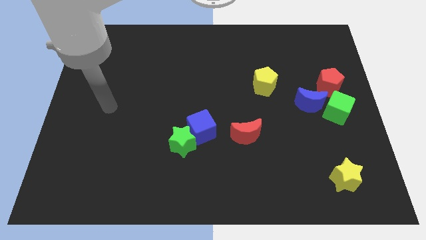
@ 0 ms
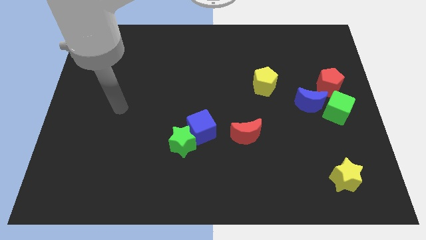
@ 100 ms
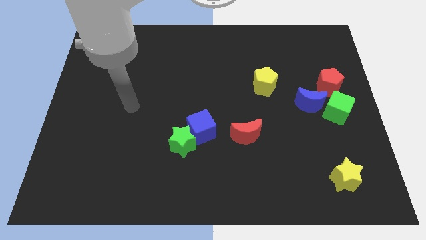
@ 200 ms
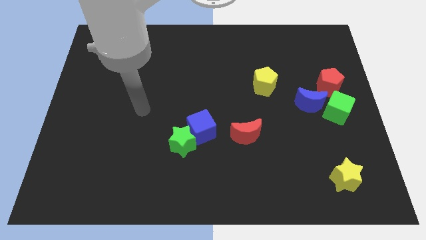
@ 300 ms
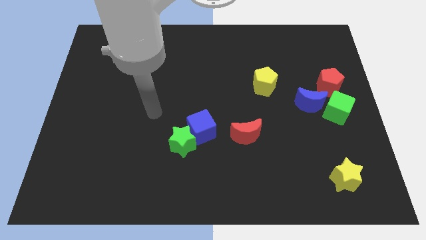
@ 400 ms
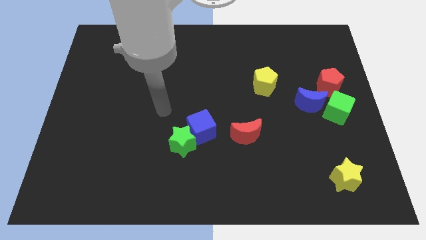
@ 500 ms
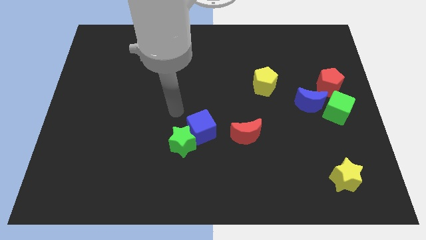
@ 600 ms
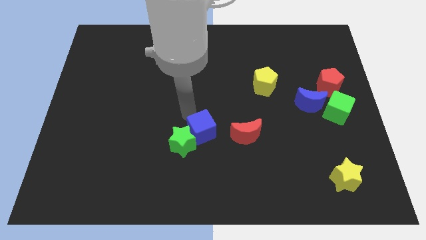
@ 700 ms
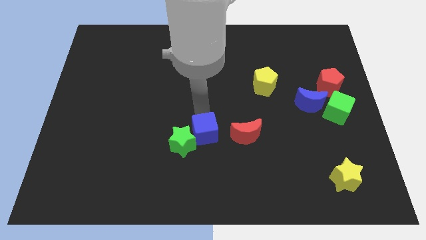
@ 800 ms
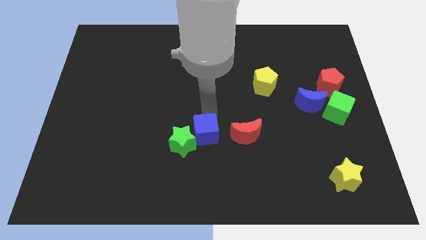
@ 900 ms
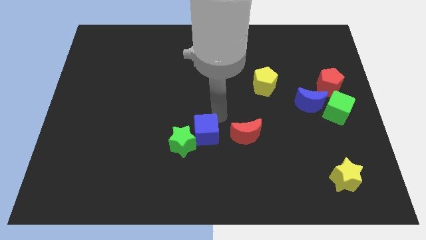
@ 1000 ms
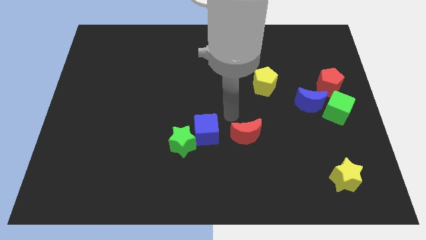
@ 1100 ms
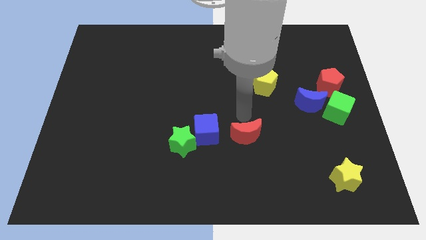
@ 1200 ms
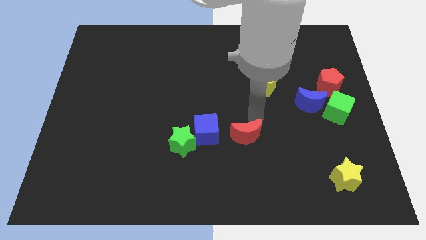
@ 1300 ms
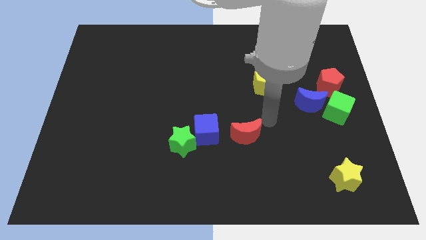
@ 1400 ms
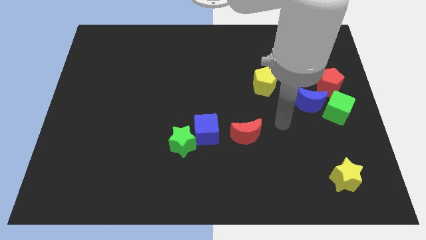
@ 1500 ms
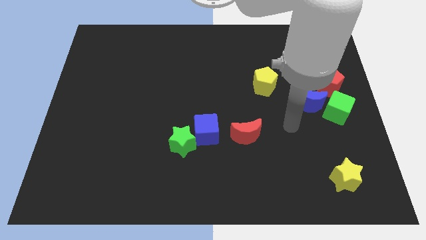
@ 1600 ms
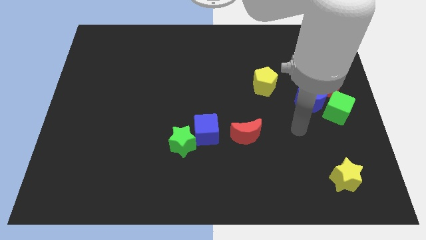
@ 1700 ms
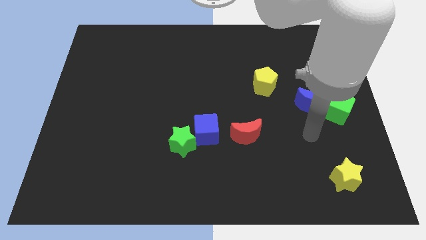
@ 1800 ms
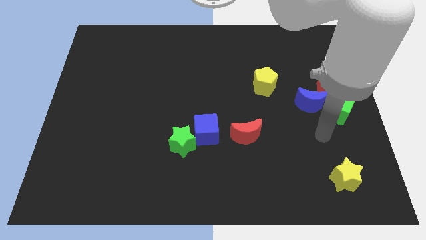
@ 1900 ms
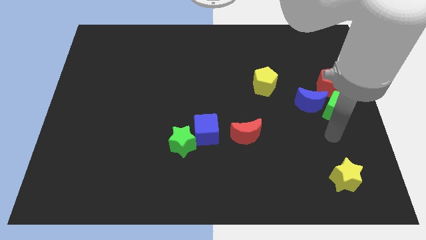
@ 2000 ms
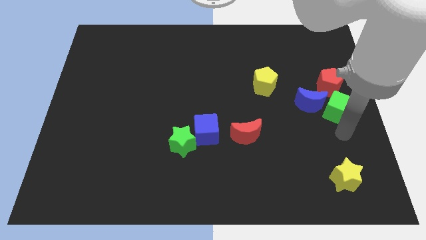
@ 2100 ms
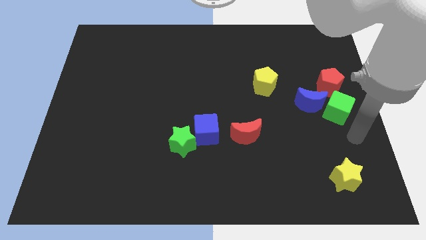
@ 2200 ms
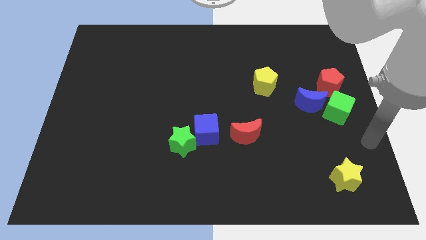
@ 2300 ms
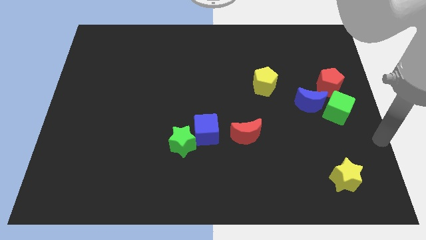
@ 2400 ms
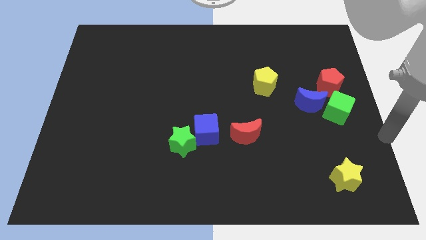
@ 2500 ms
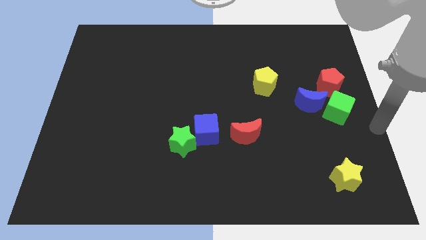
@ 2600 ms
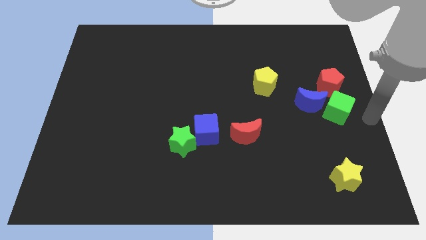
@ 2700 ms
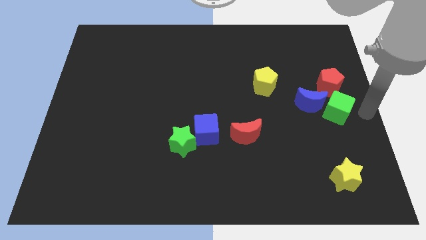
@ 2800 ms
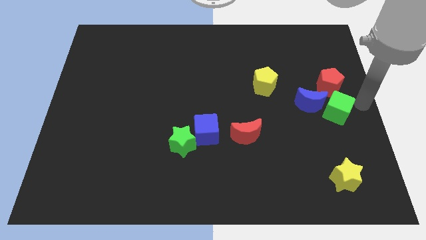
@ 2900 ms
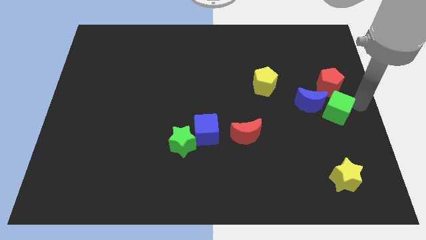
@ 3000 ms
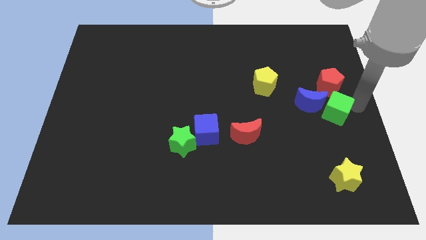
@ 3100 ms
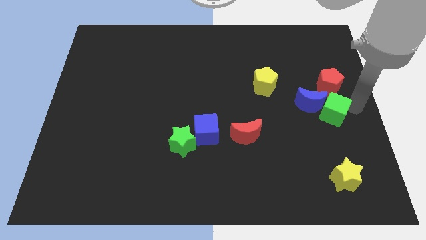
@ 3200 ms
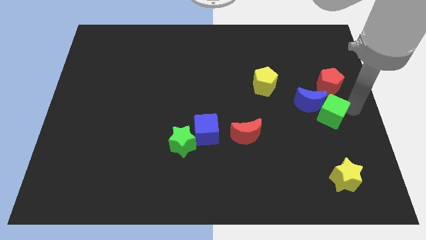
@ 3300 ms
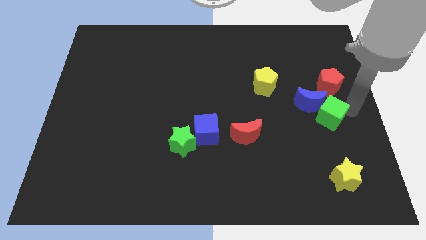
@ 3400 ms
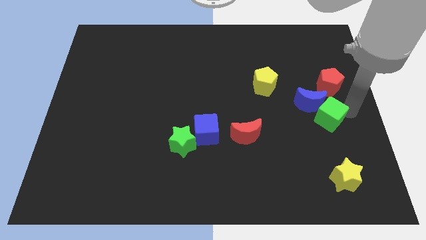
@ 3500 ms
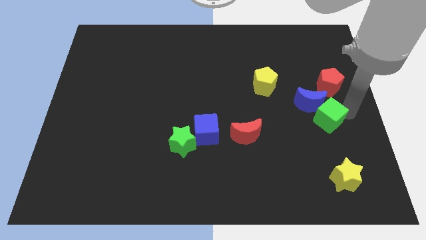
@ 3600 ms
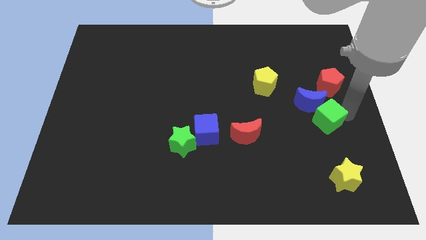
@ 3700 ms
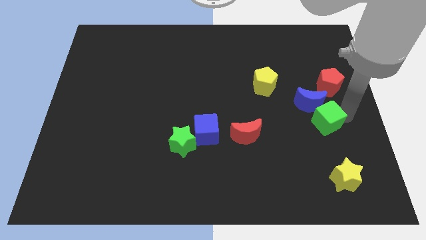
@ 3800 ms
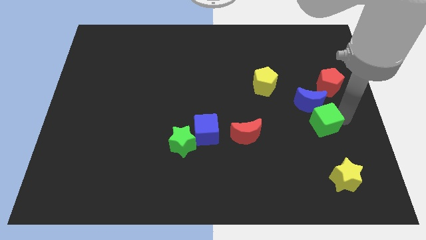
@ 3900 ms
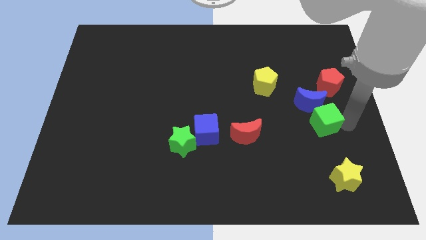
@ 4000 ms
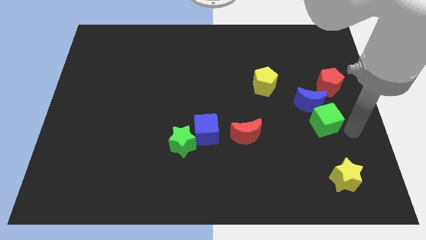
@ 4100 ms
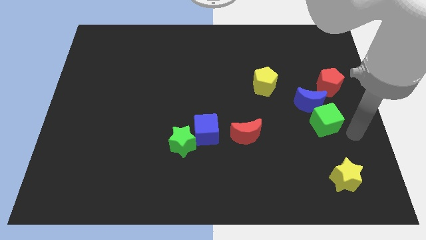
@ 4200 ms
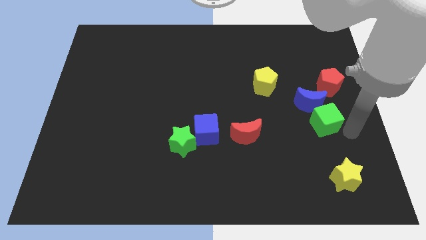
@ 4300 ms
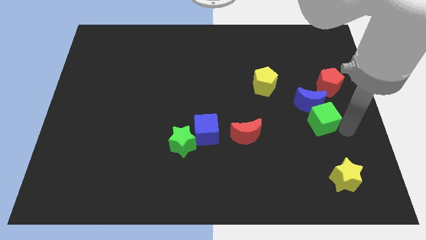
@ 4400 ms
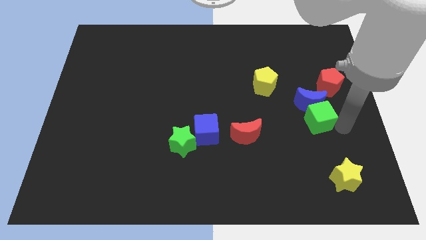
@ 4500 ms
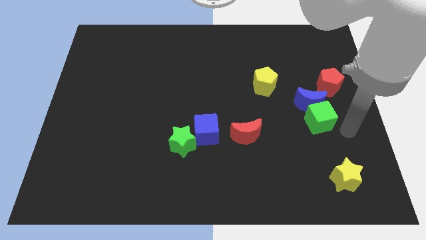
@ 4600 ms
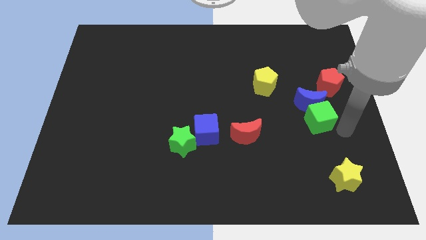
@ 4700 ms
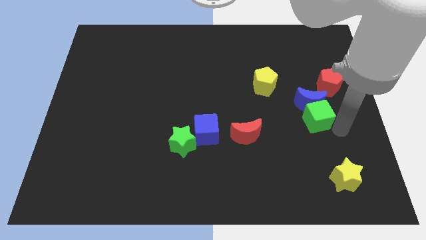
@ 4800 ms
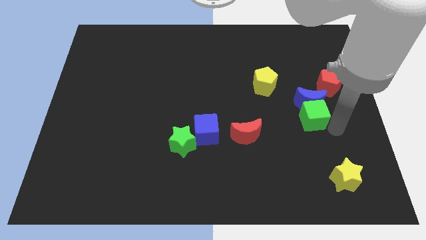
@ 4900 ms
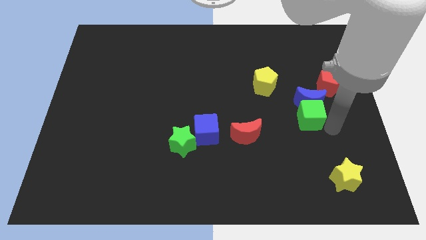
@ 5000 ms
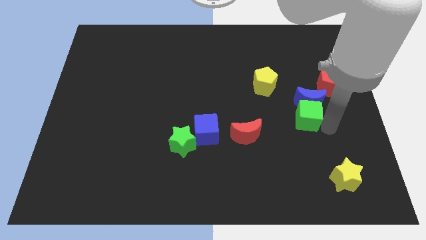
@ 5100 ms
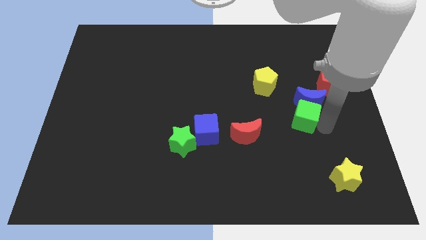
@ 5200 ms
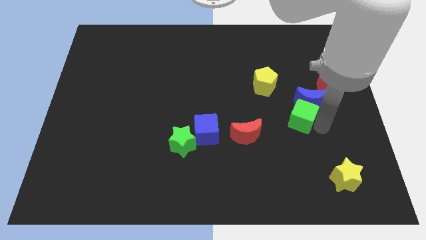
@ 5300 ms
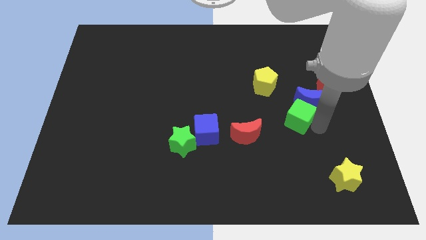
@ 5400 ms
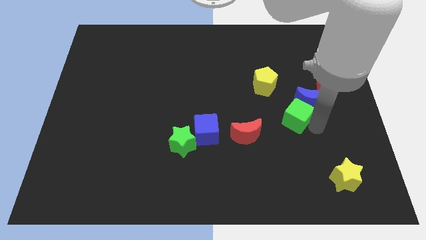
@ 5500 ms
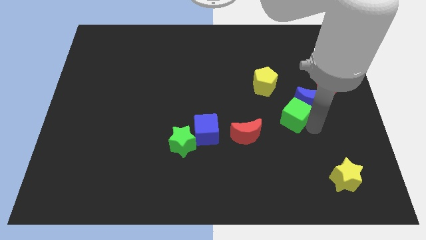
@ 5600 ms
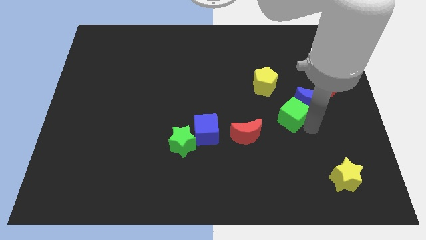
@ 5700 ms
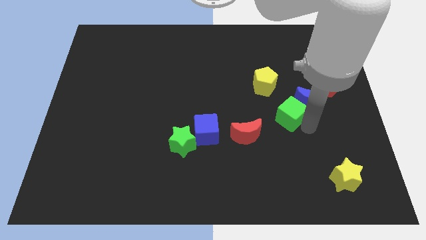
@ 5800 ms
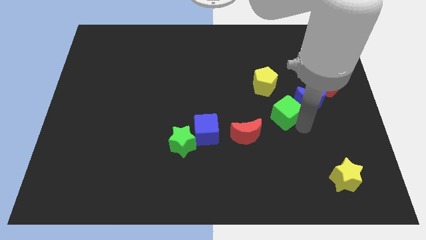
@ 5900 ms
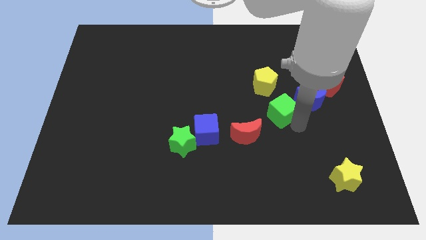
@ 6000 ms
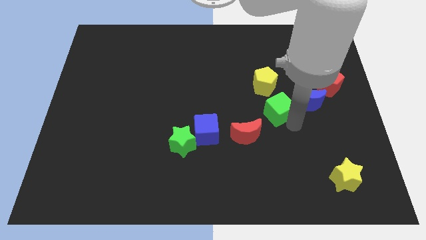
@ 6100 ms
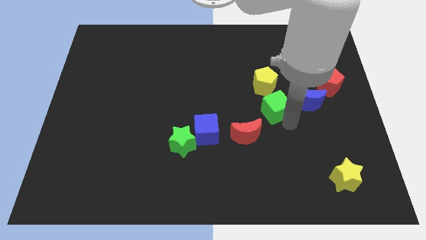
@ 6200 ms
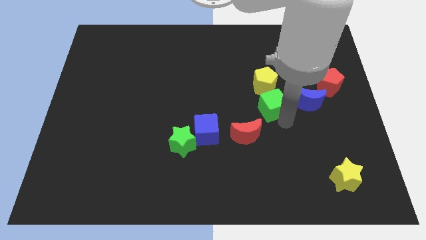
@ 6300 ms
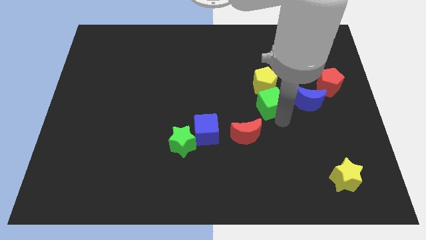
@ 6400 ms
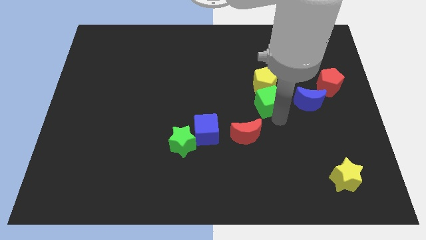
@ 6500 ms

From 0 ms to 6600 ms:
push the green cube next to the yellow pentagon
